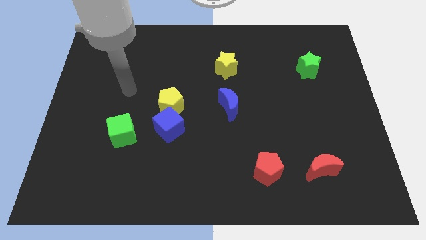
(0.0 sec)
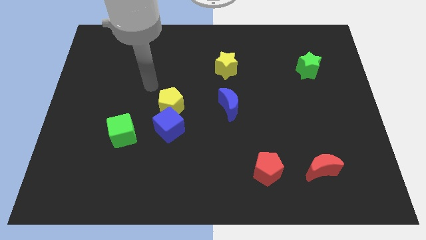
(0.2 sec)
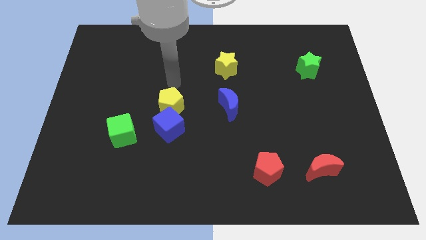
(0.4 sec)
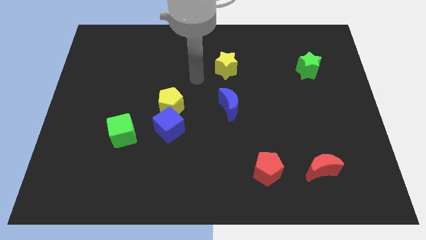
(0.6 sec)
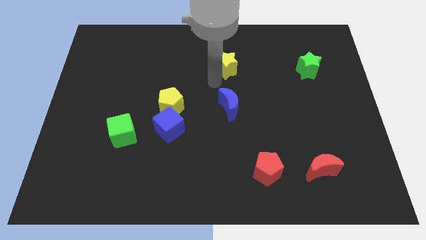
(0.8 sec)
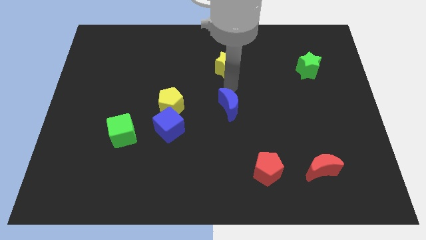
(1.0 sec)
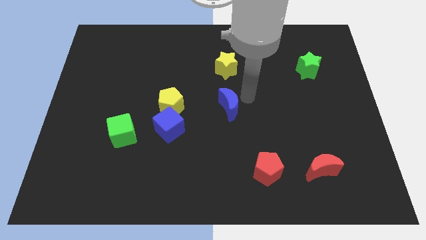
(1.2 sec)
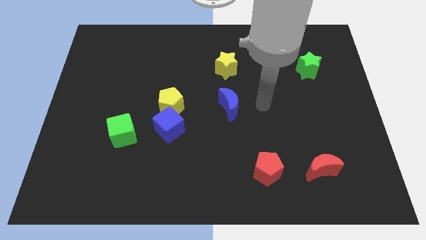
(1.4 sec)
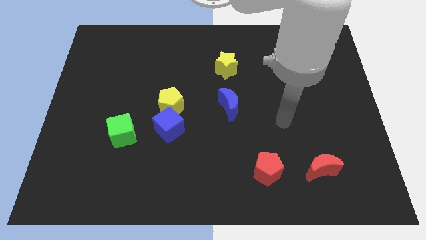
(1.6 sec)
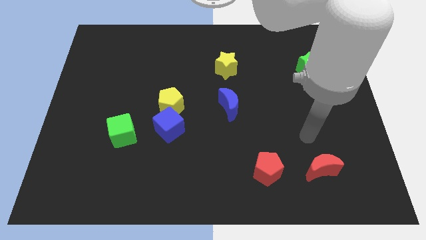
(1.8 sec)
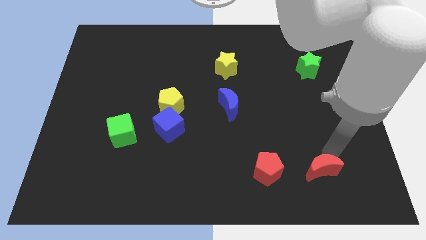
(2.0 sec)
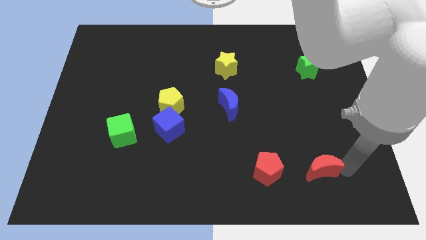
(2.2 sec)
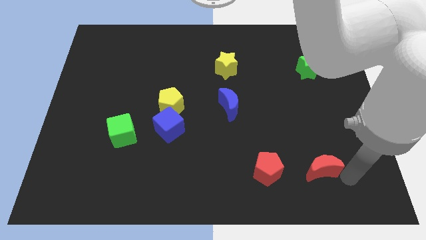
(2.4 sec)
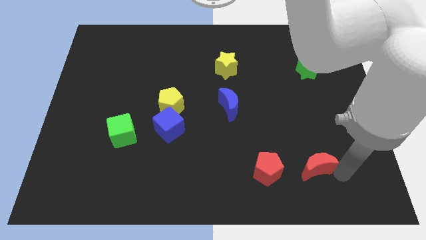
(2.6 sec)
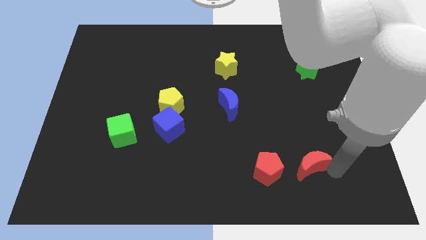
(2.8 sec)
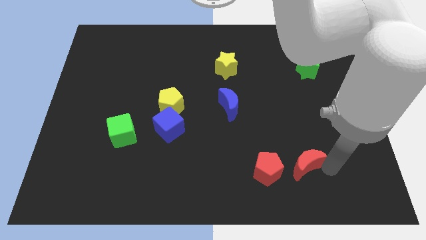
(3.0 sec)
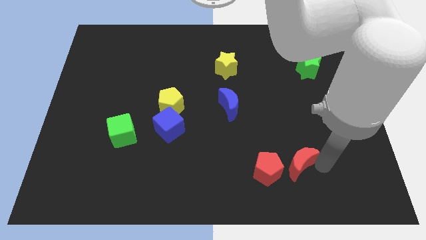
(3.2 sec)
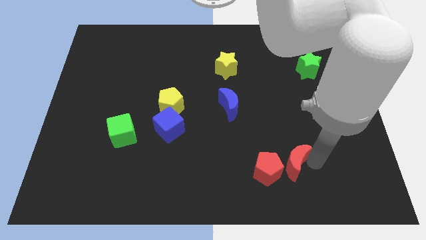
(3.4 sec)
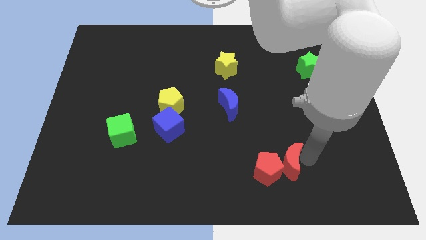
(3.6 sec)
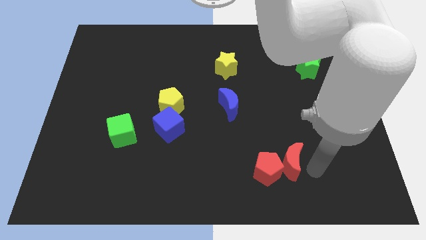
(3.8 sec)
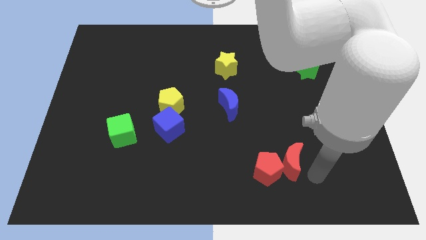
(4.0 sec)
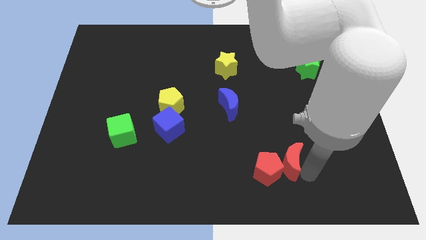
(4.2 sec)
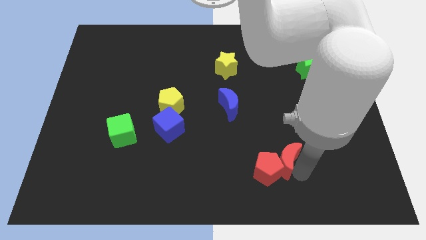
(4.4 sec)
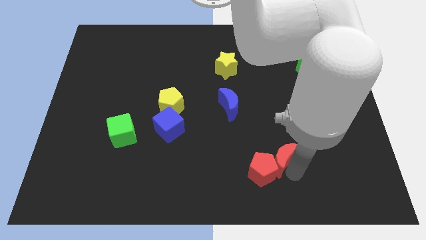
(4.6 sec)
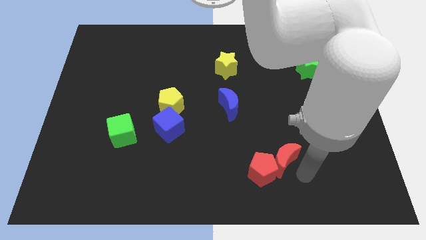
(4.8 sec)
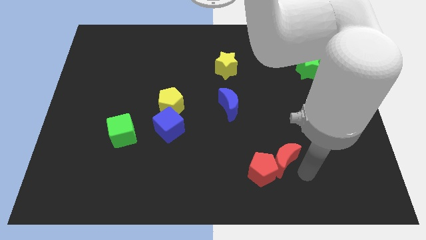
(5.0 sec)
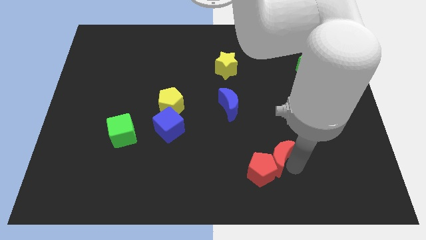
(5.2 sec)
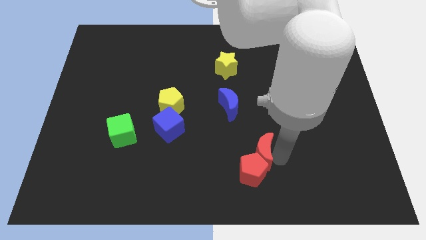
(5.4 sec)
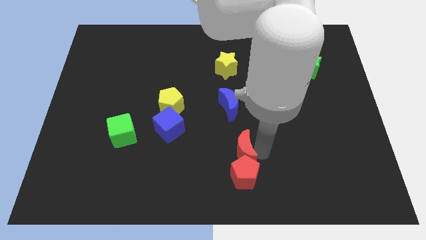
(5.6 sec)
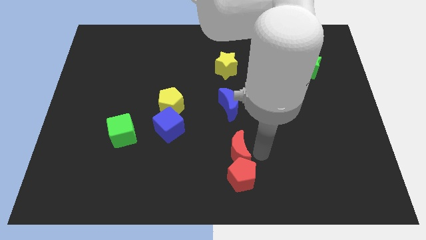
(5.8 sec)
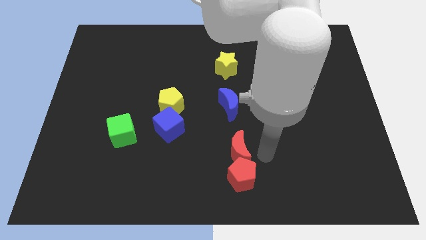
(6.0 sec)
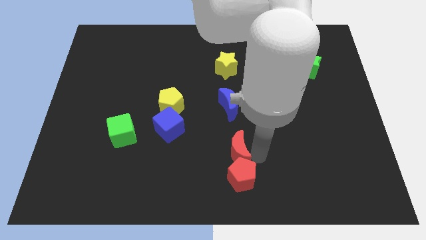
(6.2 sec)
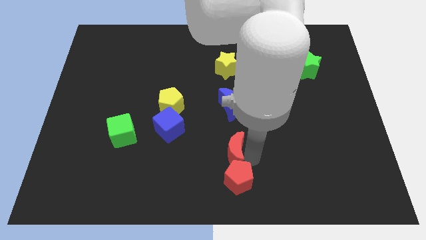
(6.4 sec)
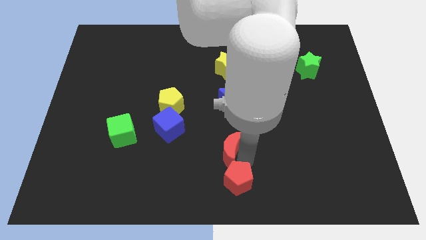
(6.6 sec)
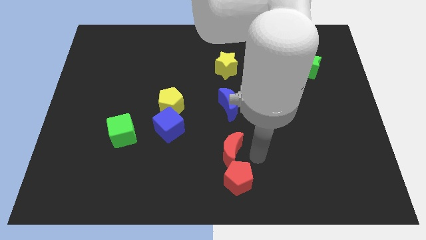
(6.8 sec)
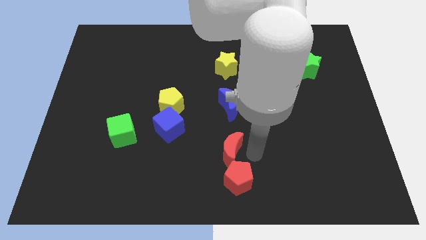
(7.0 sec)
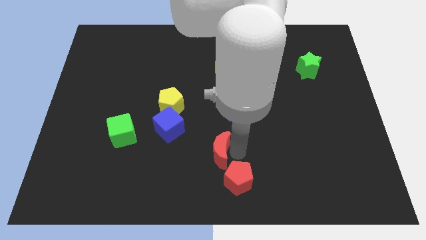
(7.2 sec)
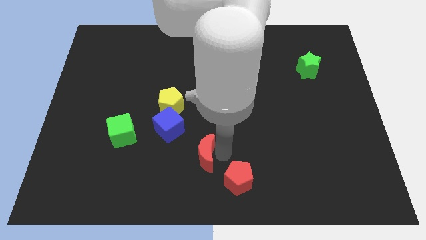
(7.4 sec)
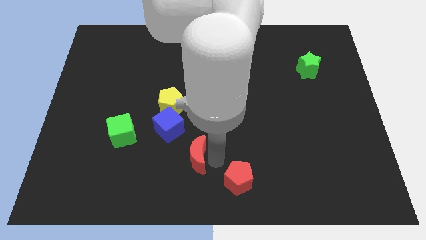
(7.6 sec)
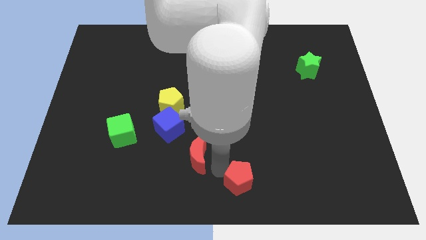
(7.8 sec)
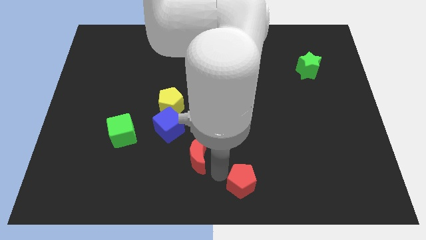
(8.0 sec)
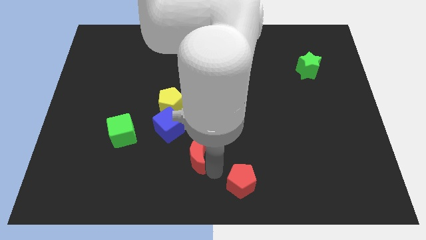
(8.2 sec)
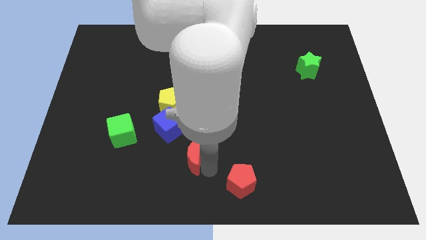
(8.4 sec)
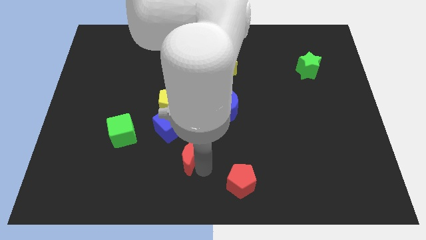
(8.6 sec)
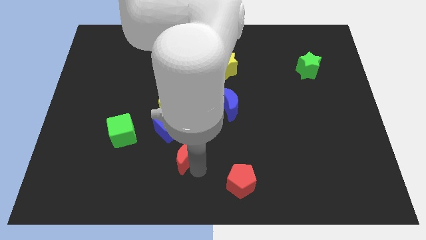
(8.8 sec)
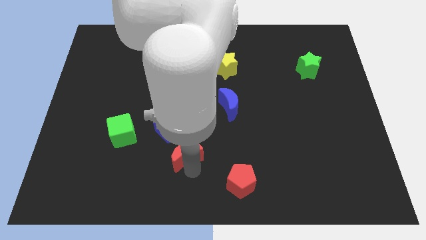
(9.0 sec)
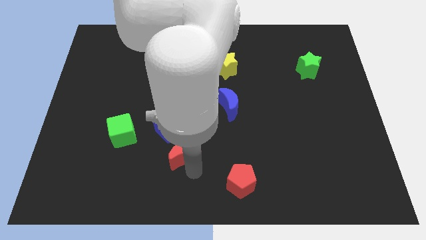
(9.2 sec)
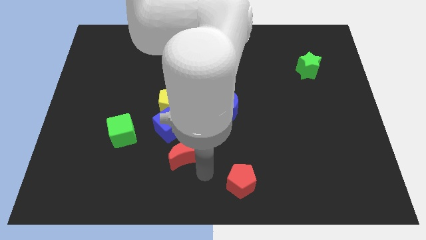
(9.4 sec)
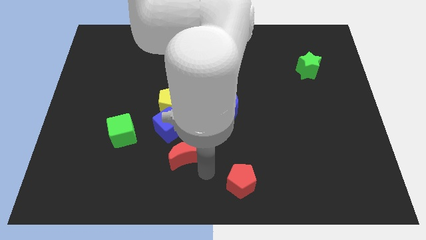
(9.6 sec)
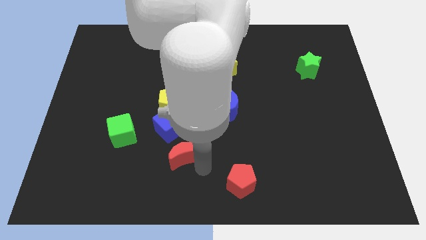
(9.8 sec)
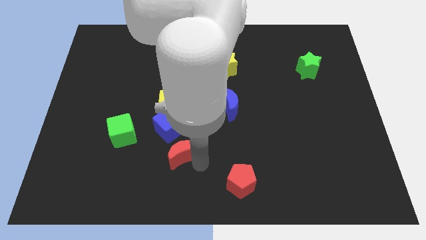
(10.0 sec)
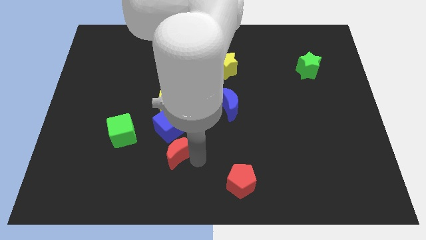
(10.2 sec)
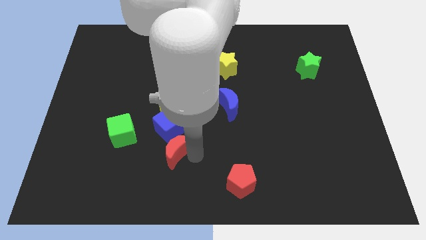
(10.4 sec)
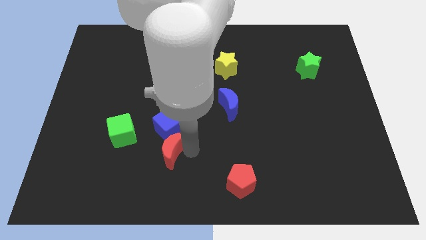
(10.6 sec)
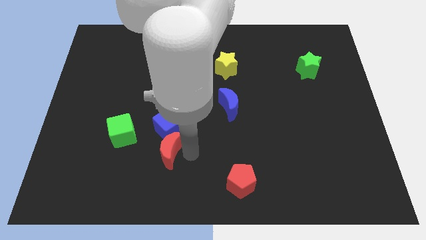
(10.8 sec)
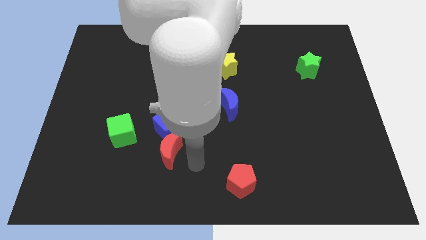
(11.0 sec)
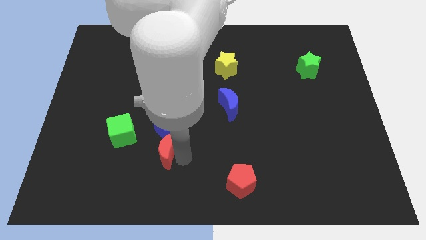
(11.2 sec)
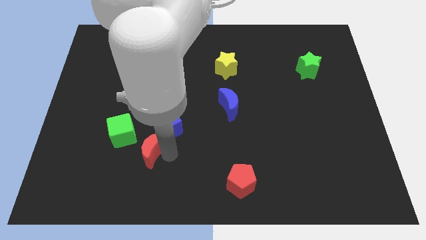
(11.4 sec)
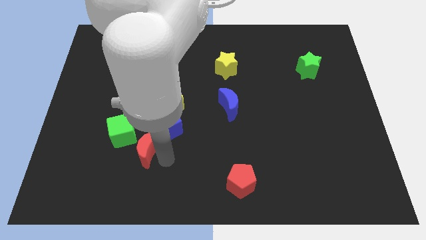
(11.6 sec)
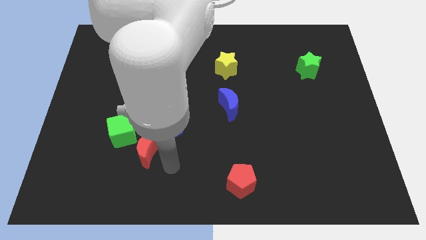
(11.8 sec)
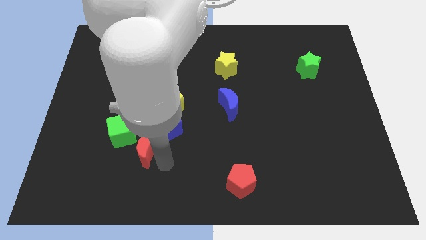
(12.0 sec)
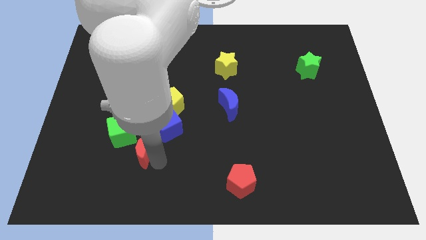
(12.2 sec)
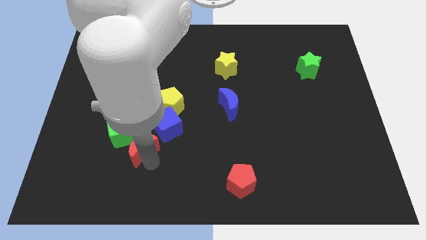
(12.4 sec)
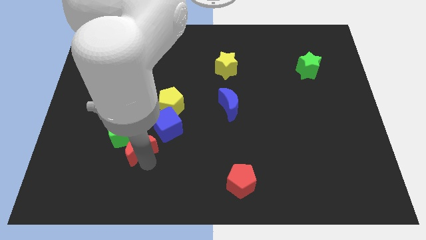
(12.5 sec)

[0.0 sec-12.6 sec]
move the red moon next to the green cube

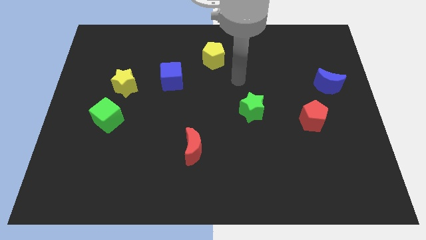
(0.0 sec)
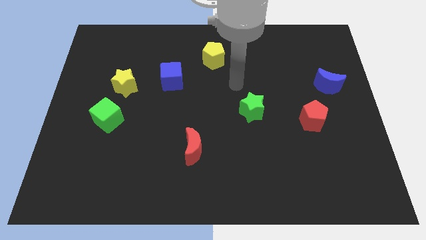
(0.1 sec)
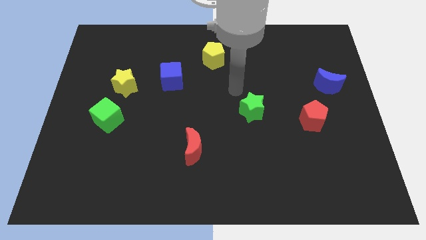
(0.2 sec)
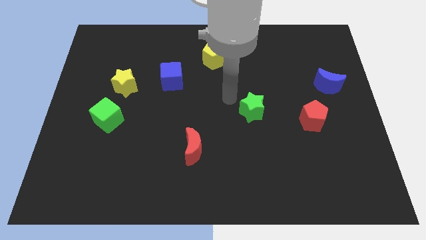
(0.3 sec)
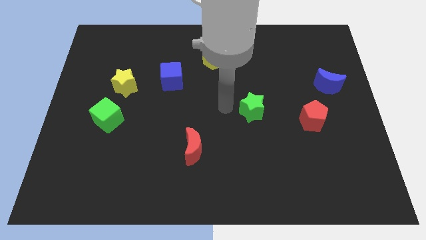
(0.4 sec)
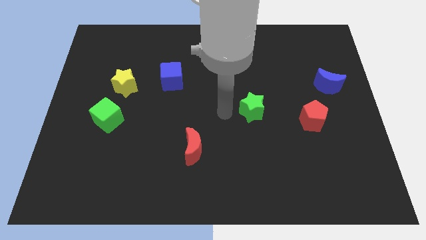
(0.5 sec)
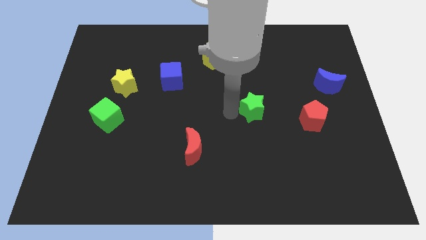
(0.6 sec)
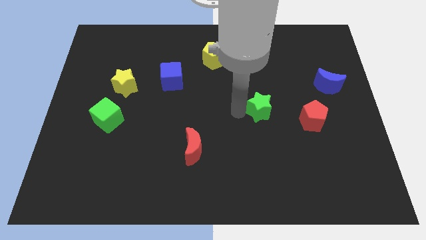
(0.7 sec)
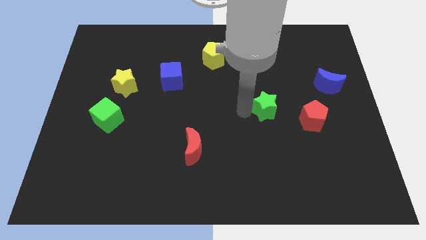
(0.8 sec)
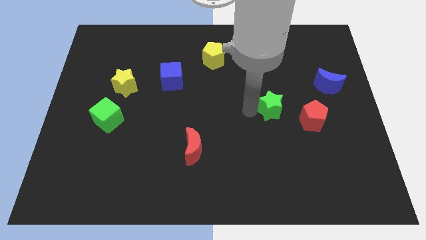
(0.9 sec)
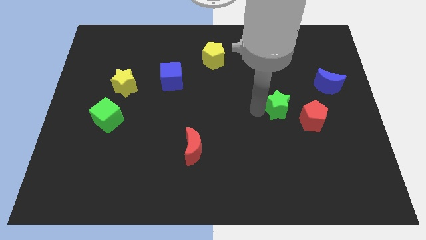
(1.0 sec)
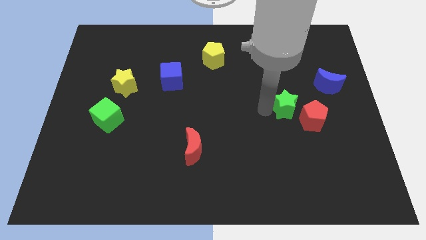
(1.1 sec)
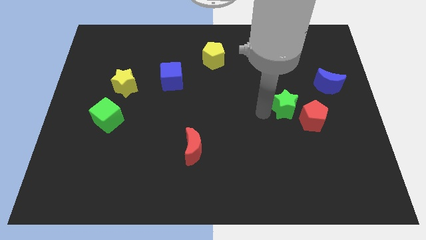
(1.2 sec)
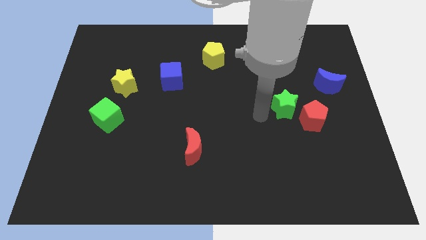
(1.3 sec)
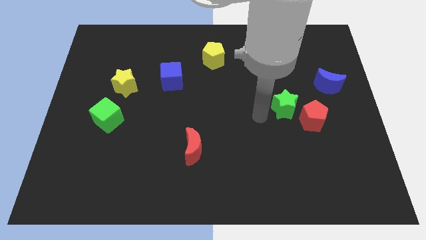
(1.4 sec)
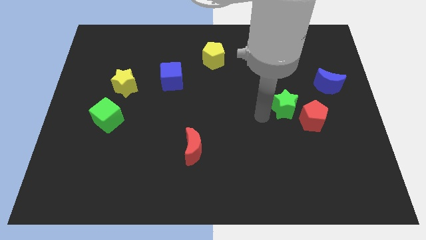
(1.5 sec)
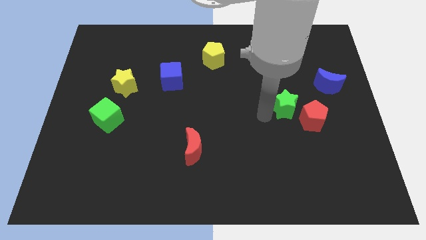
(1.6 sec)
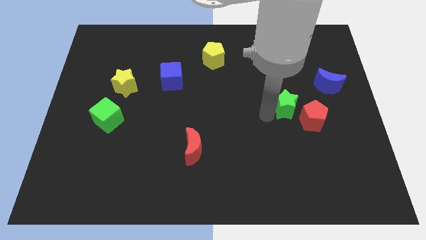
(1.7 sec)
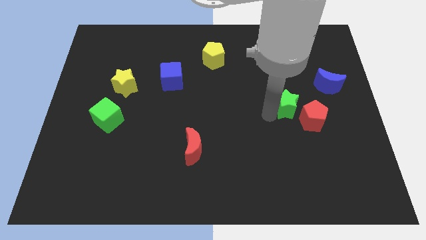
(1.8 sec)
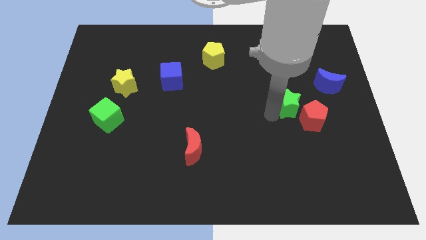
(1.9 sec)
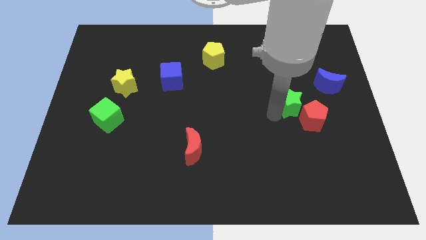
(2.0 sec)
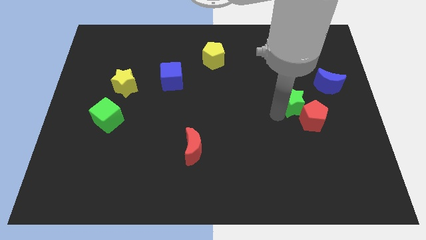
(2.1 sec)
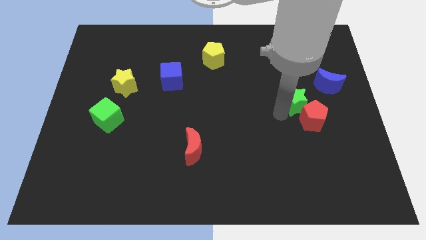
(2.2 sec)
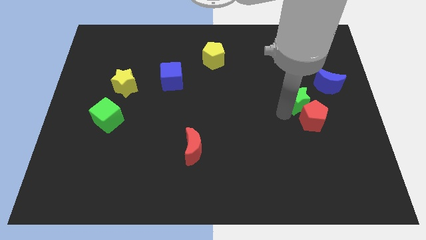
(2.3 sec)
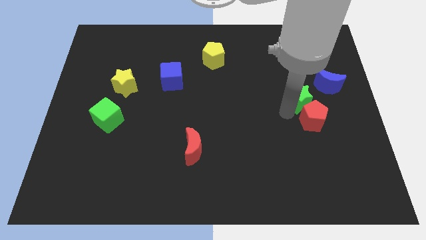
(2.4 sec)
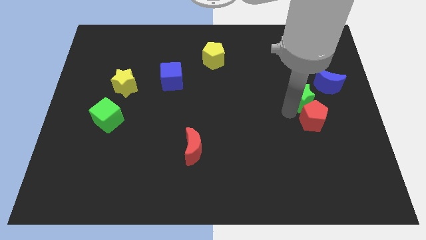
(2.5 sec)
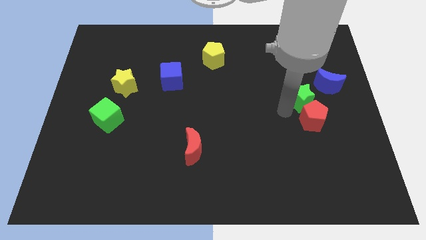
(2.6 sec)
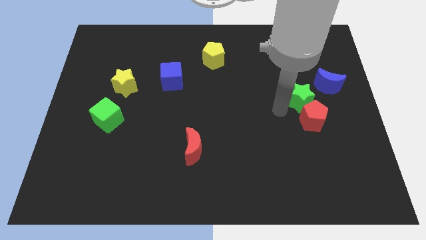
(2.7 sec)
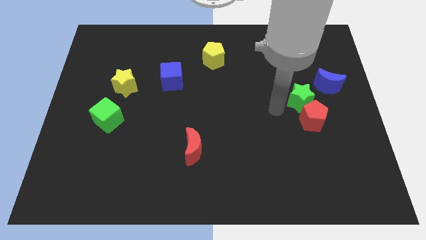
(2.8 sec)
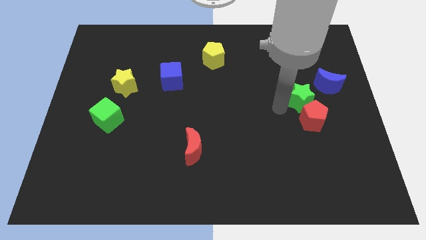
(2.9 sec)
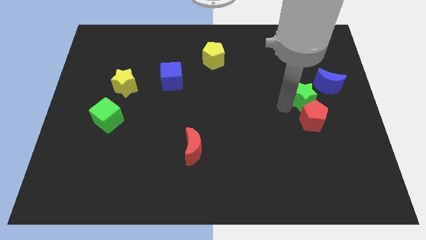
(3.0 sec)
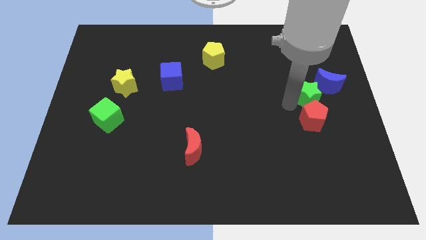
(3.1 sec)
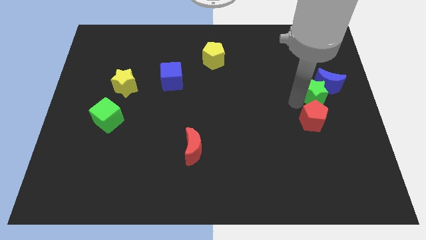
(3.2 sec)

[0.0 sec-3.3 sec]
put the green star next to the blue moon
